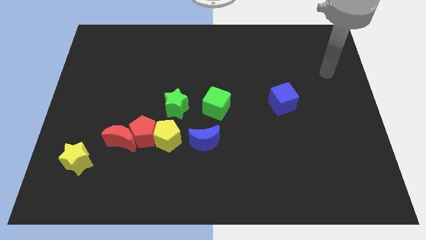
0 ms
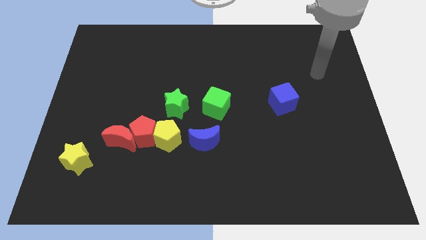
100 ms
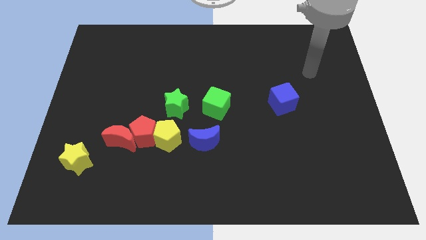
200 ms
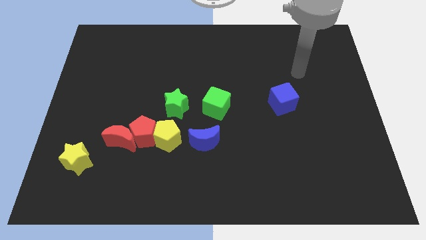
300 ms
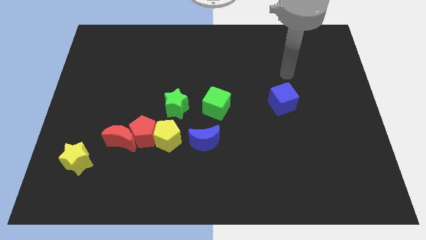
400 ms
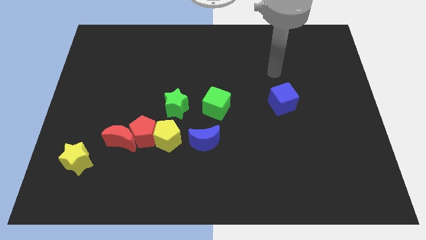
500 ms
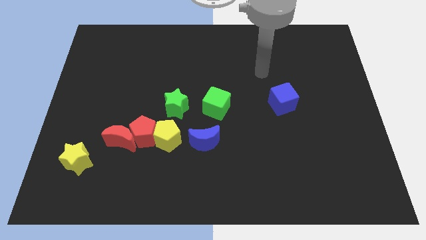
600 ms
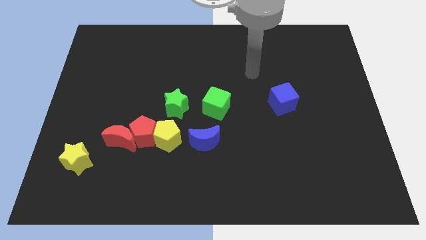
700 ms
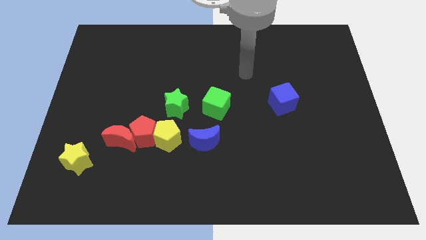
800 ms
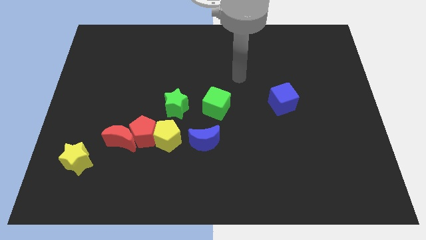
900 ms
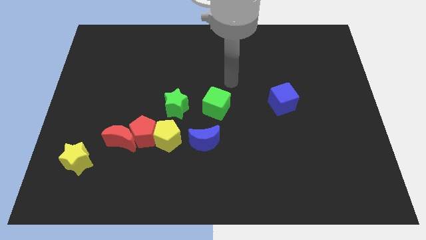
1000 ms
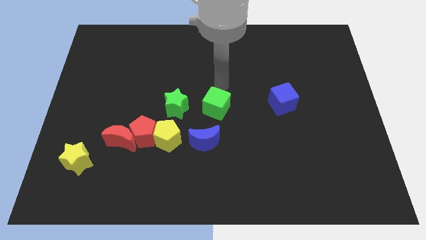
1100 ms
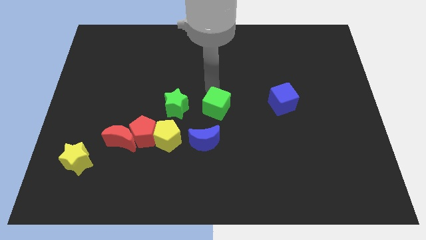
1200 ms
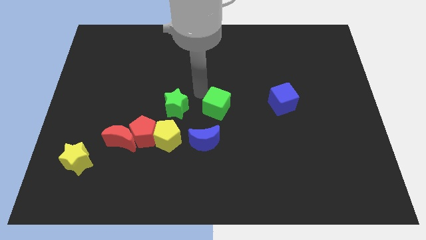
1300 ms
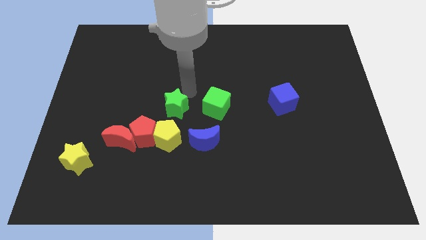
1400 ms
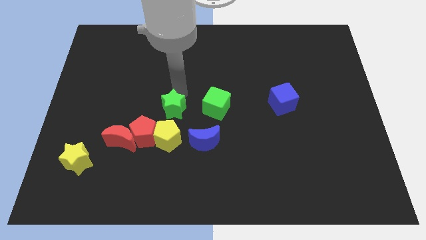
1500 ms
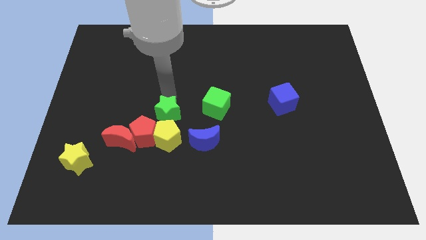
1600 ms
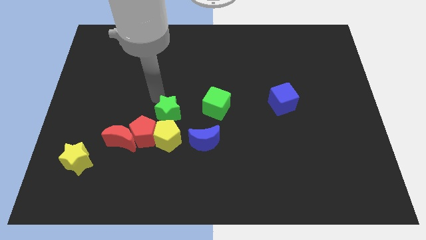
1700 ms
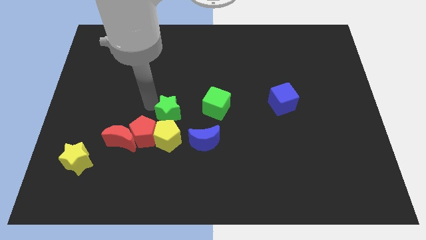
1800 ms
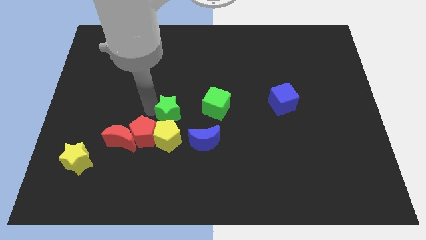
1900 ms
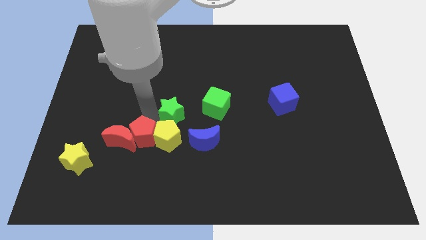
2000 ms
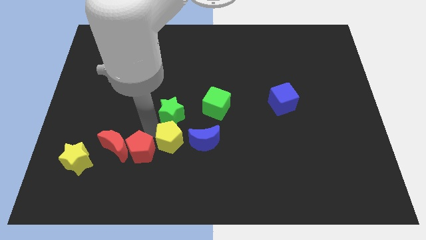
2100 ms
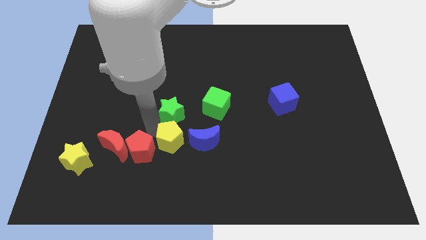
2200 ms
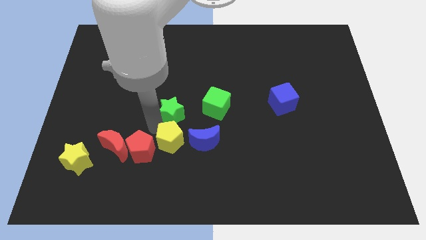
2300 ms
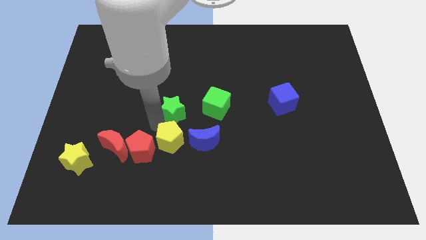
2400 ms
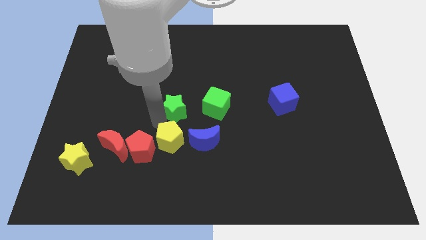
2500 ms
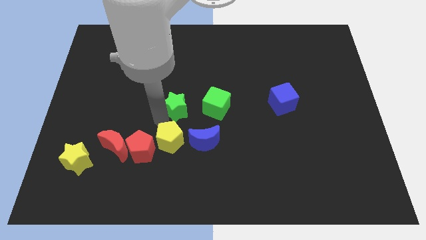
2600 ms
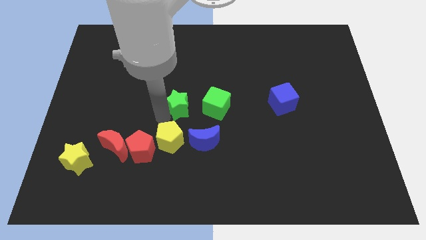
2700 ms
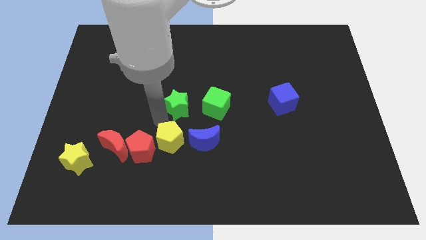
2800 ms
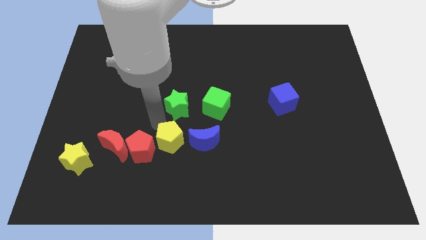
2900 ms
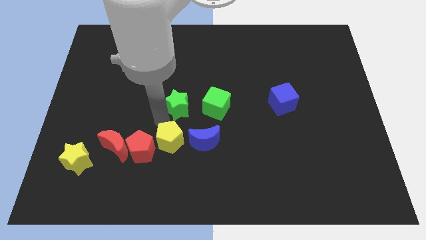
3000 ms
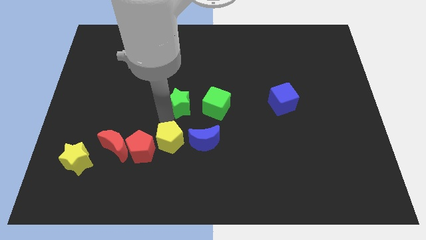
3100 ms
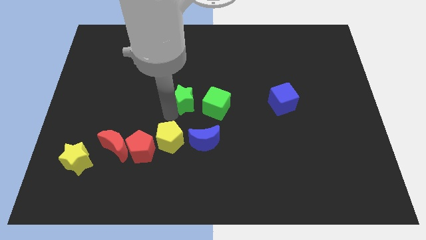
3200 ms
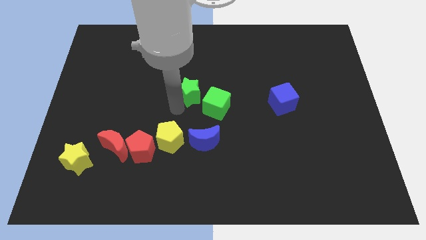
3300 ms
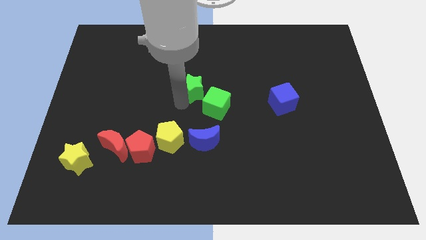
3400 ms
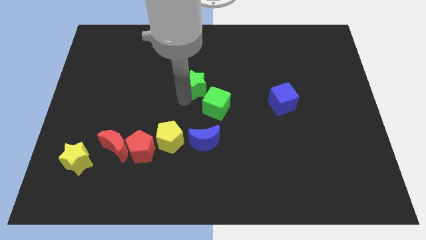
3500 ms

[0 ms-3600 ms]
slightly move the green star up and then right

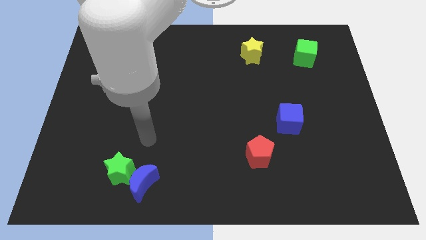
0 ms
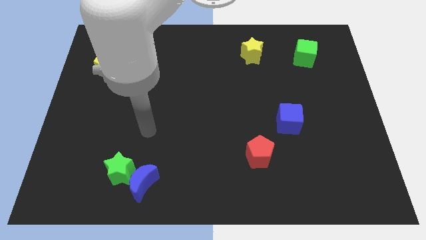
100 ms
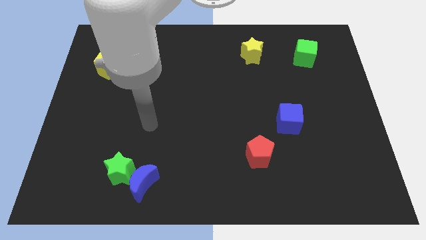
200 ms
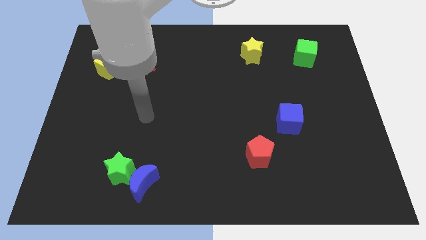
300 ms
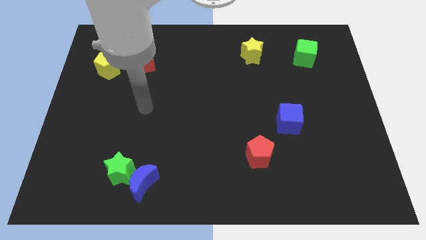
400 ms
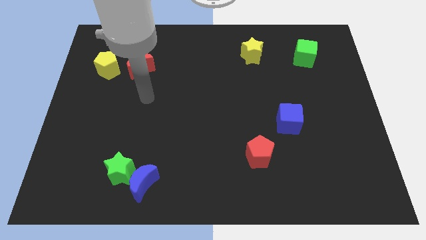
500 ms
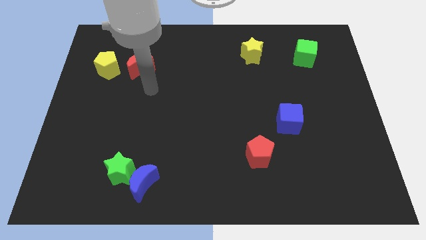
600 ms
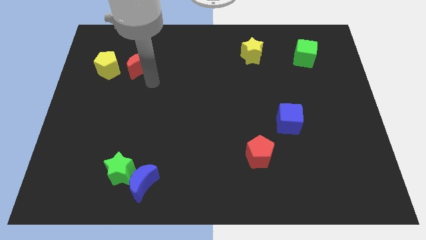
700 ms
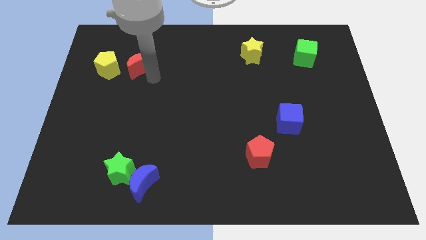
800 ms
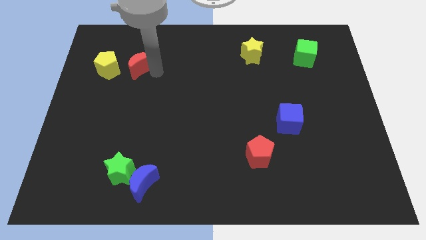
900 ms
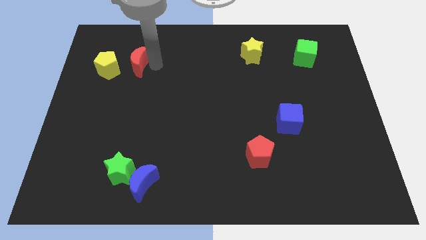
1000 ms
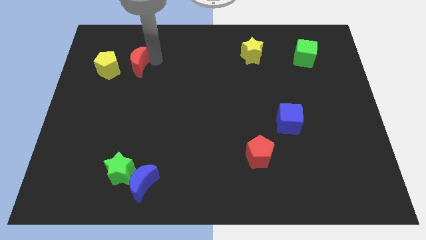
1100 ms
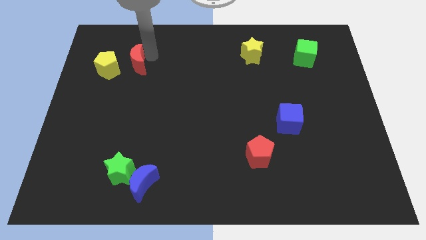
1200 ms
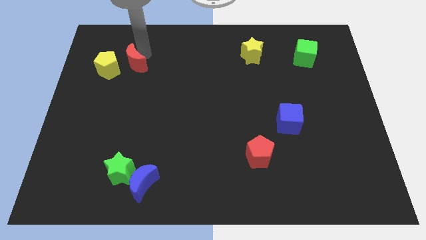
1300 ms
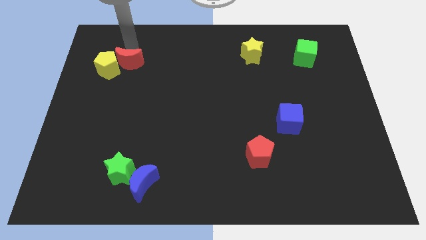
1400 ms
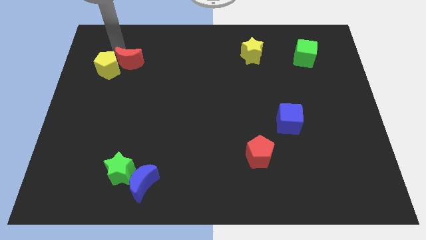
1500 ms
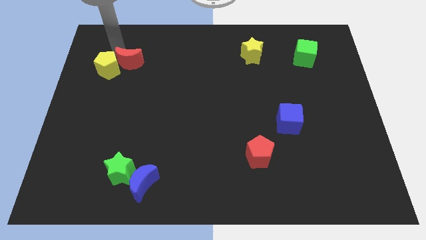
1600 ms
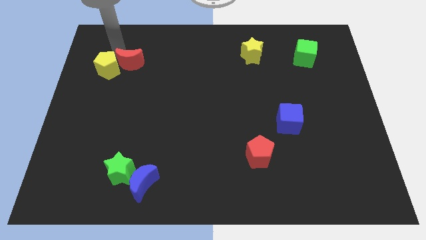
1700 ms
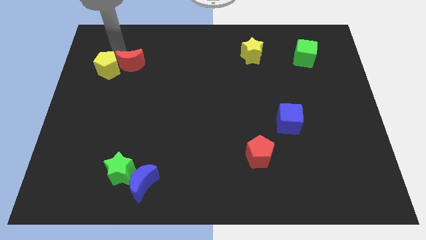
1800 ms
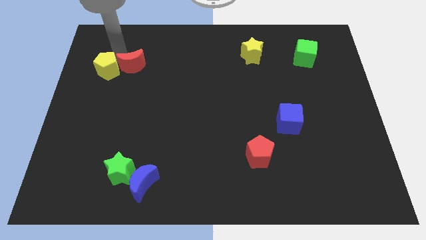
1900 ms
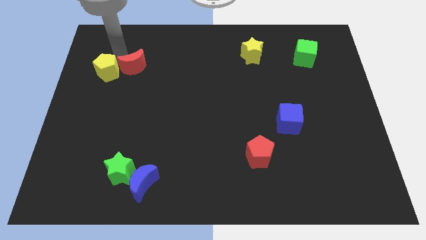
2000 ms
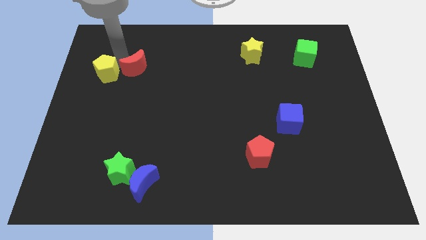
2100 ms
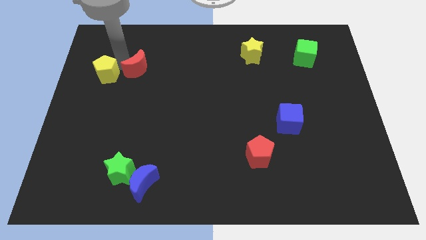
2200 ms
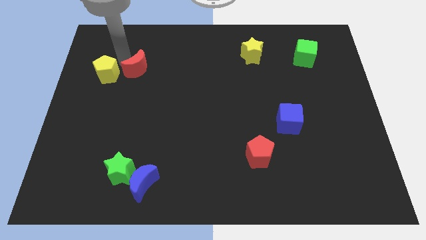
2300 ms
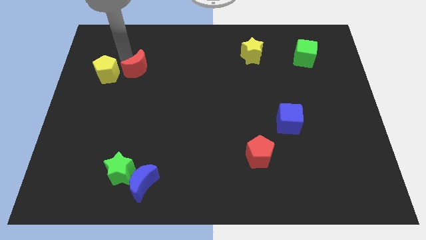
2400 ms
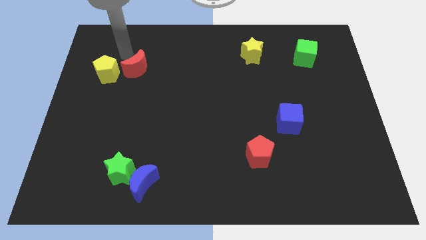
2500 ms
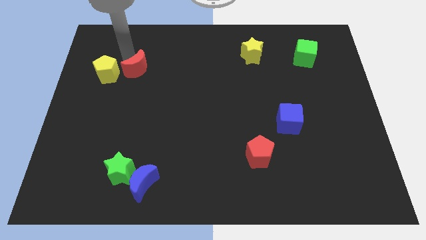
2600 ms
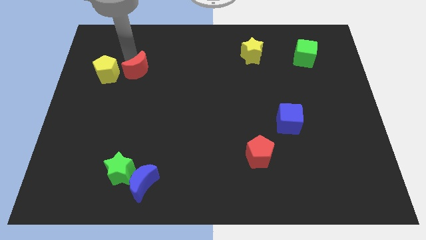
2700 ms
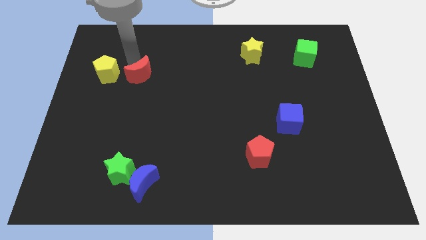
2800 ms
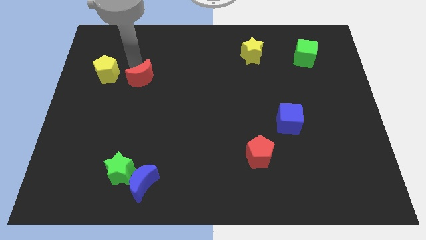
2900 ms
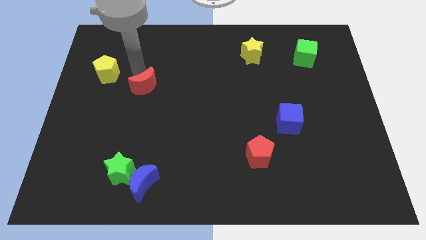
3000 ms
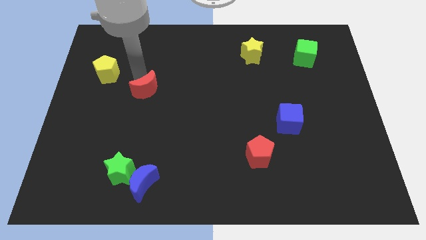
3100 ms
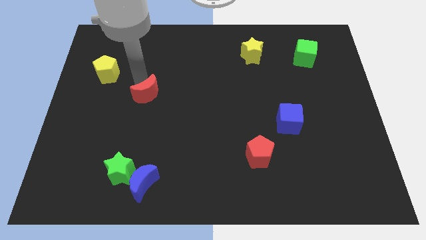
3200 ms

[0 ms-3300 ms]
slide the red moon diagonally down and right somewhat

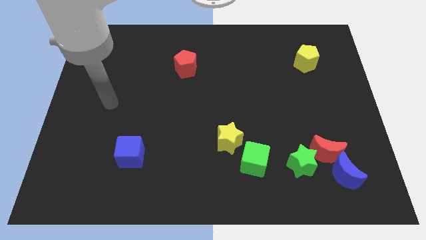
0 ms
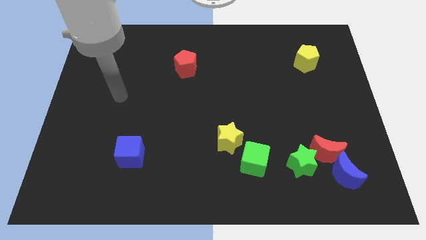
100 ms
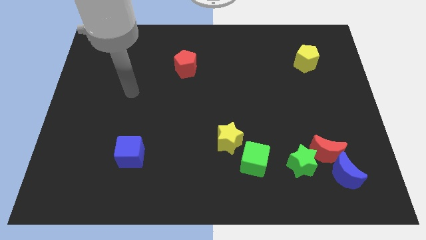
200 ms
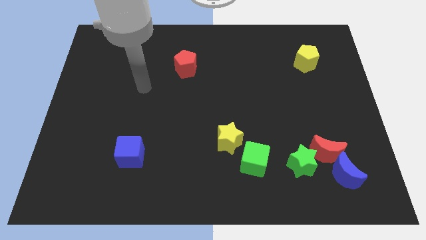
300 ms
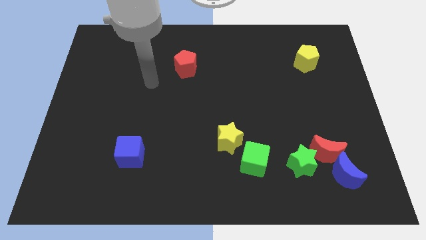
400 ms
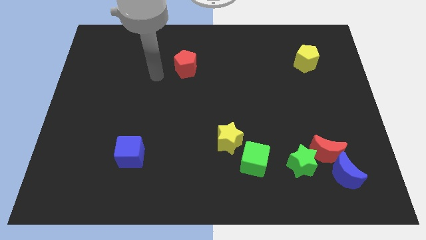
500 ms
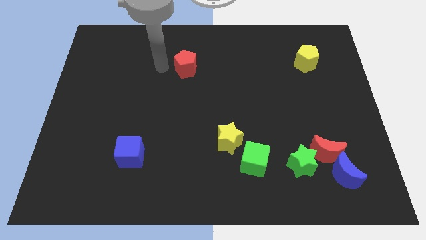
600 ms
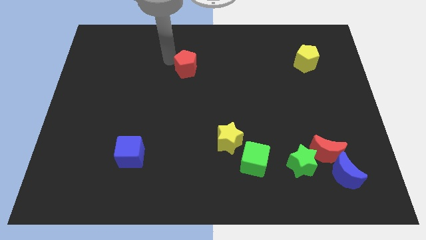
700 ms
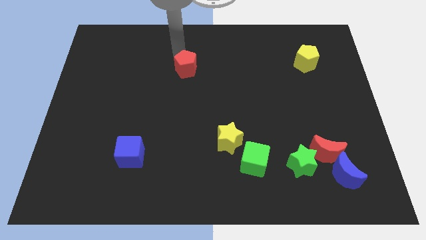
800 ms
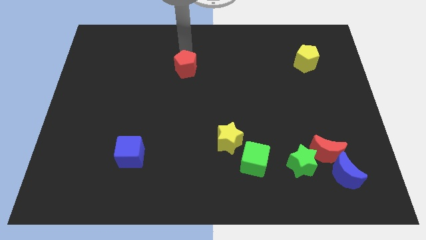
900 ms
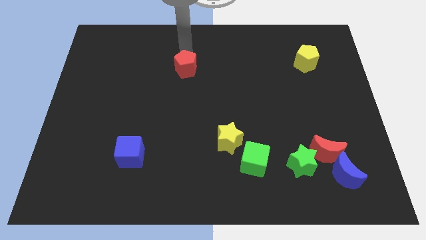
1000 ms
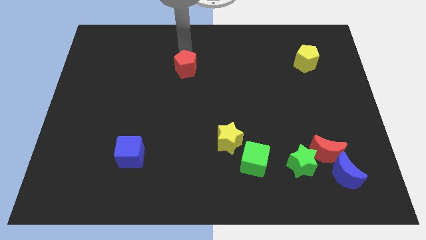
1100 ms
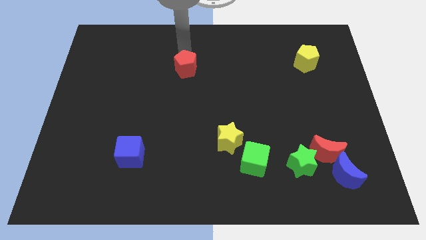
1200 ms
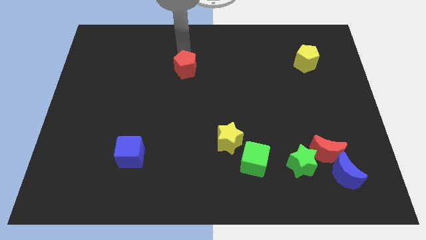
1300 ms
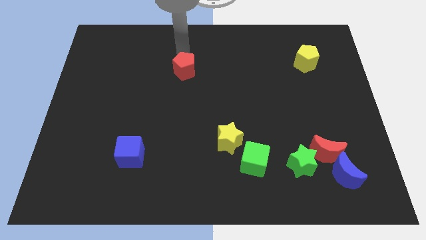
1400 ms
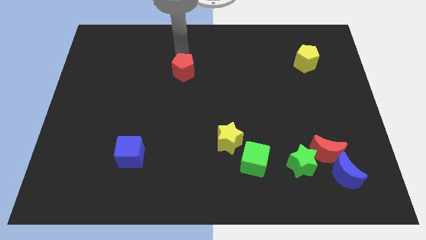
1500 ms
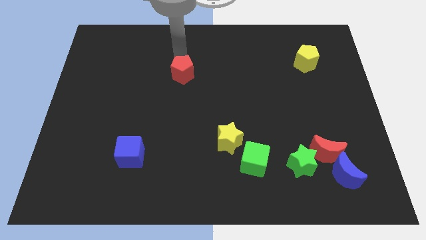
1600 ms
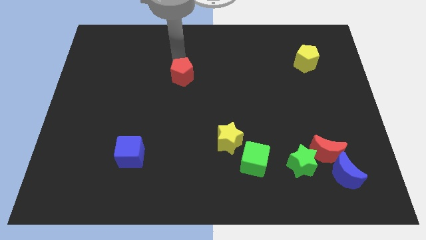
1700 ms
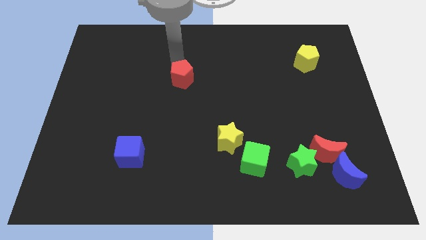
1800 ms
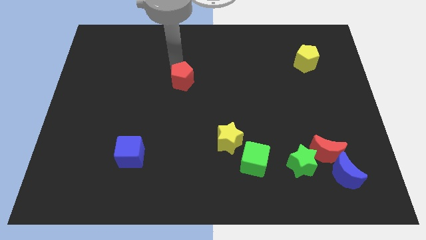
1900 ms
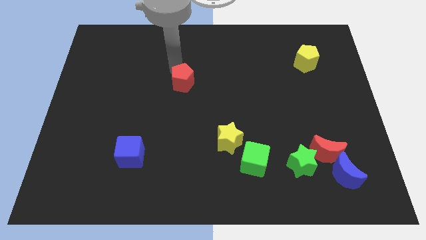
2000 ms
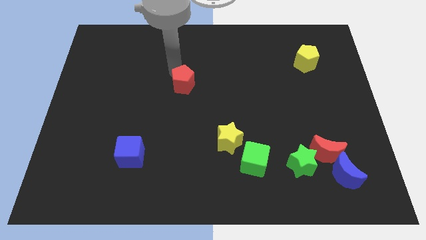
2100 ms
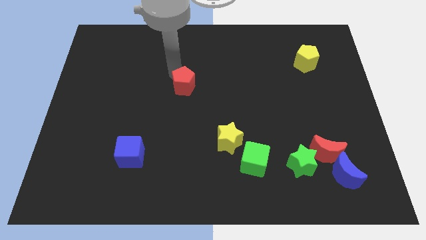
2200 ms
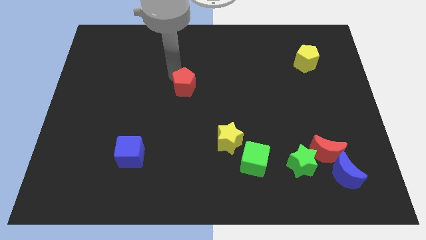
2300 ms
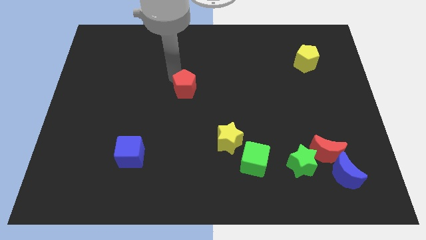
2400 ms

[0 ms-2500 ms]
slide the red pentagon down slightly
